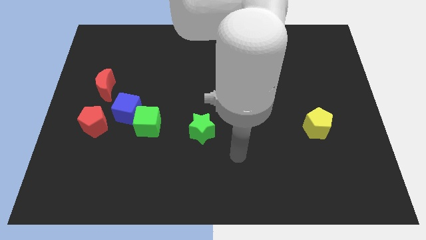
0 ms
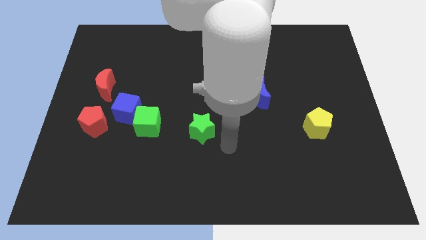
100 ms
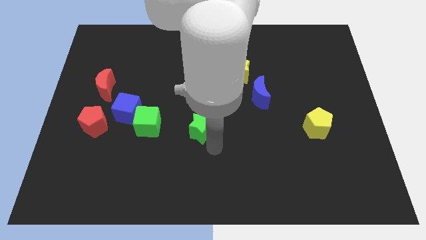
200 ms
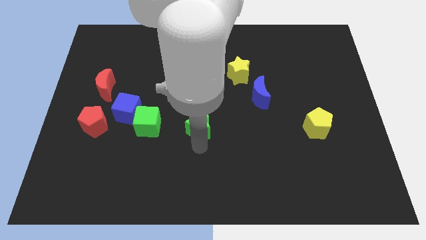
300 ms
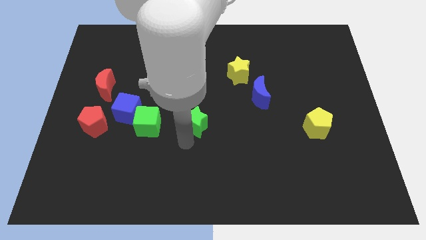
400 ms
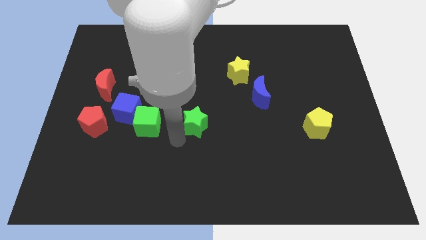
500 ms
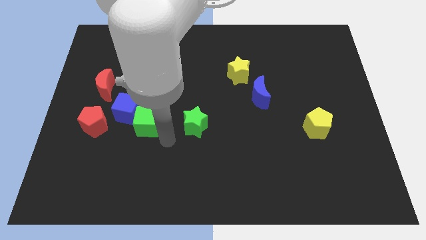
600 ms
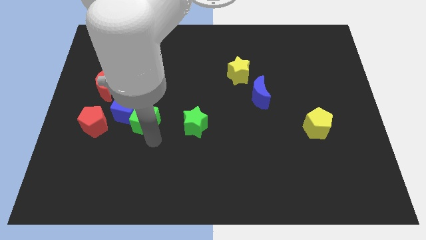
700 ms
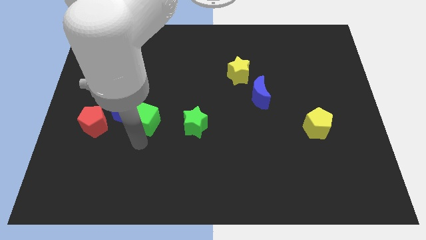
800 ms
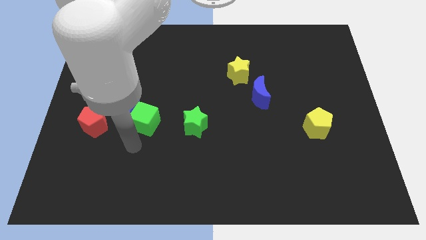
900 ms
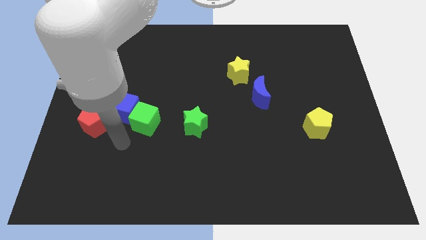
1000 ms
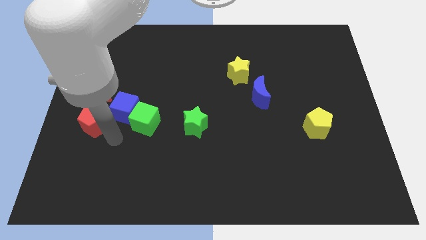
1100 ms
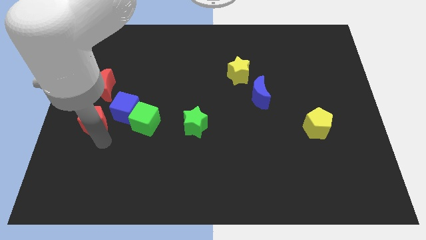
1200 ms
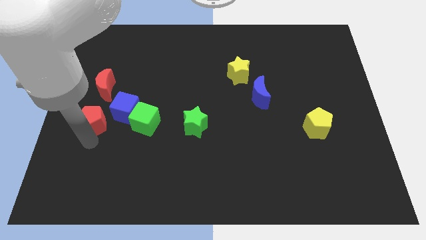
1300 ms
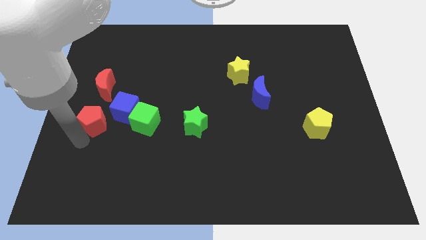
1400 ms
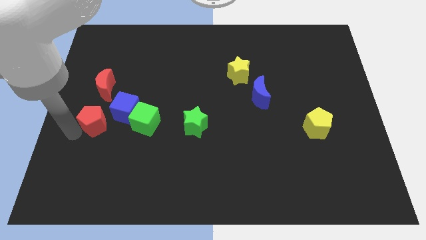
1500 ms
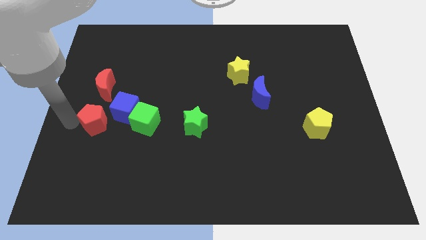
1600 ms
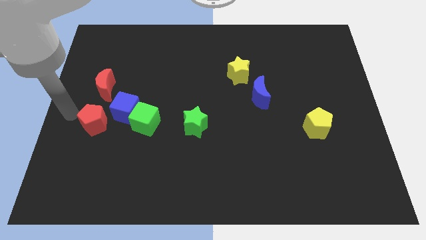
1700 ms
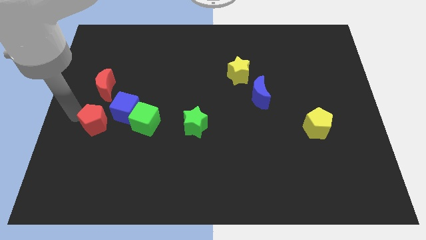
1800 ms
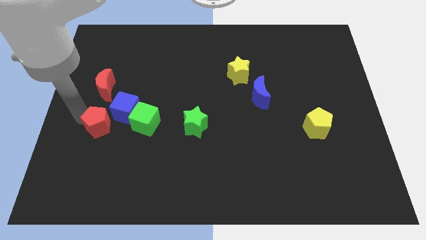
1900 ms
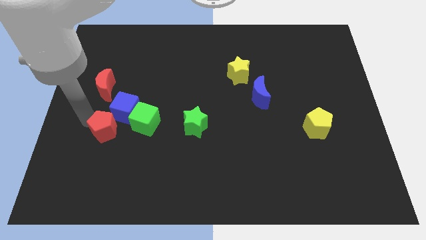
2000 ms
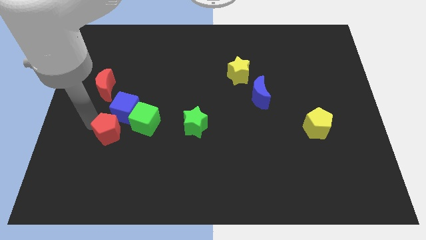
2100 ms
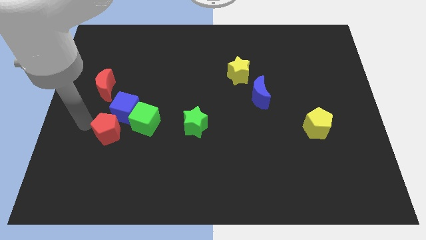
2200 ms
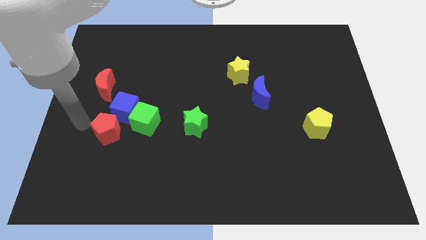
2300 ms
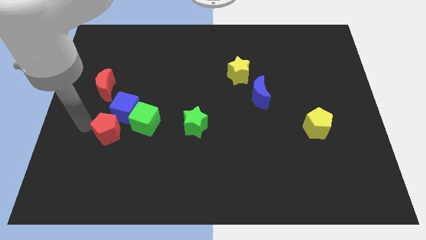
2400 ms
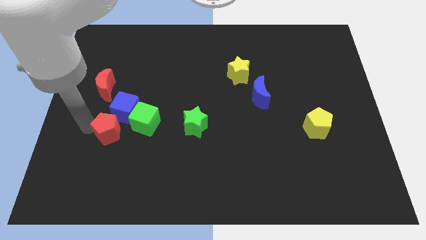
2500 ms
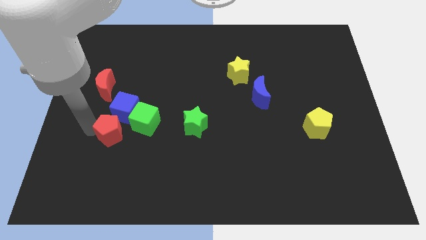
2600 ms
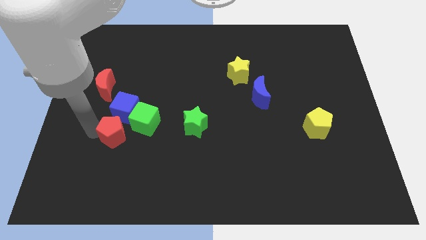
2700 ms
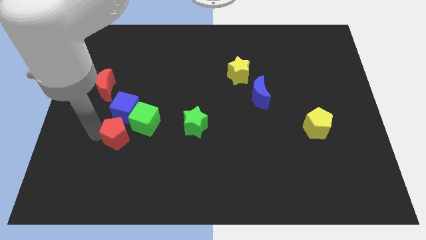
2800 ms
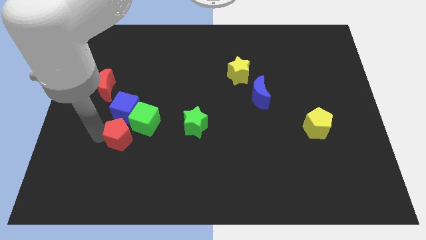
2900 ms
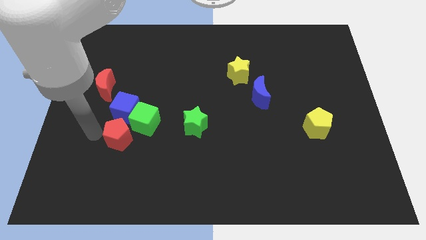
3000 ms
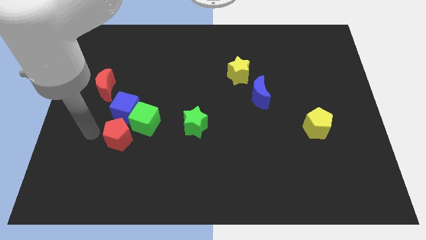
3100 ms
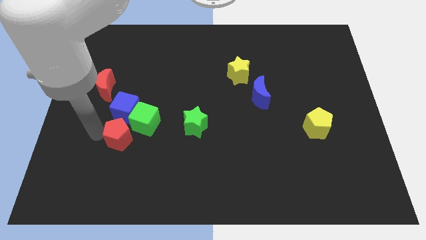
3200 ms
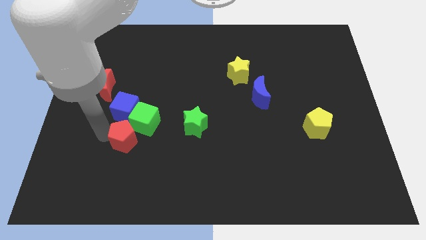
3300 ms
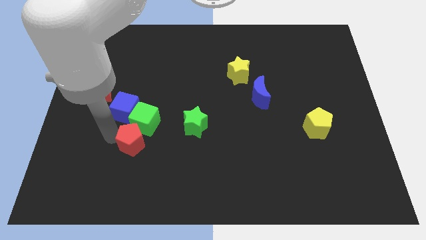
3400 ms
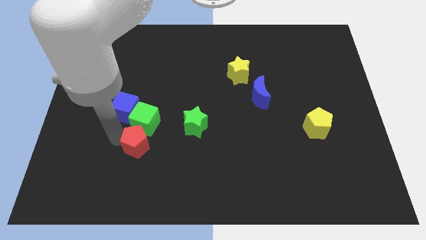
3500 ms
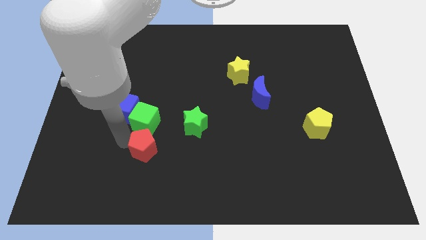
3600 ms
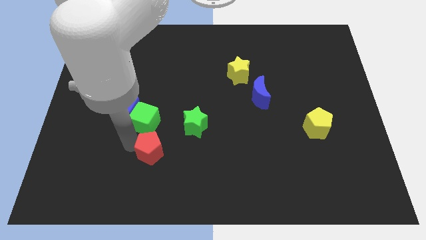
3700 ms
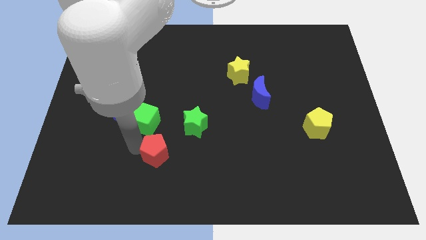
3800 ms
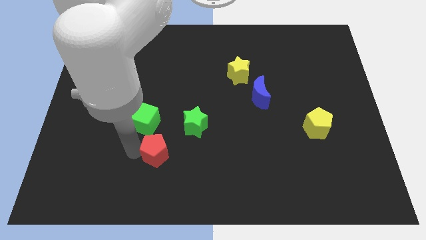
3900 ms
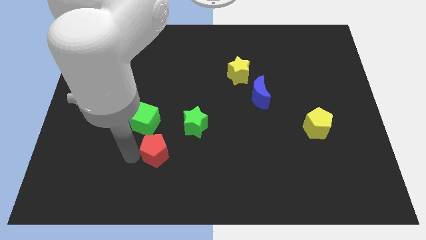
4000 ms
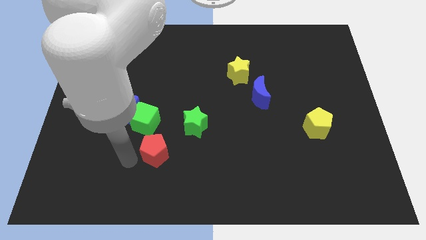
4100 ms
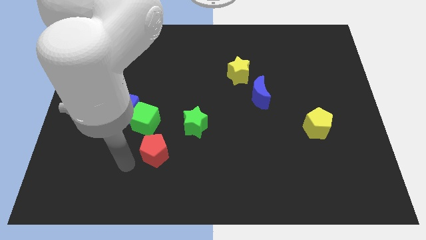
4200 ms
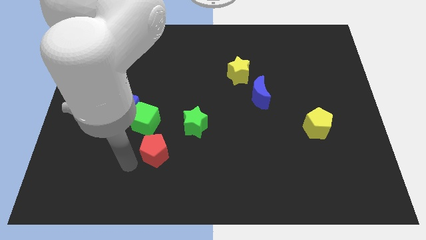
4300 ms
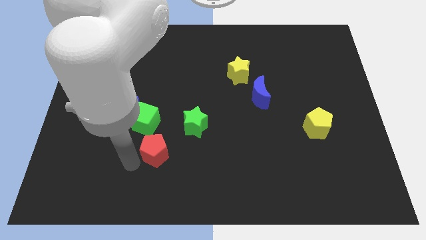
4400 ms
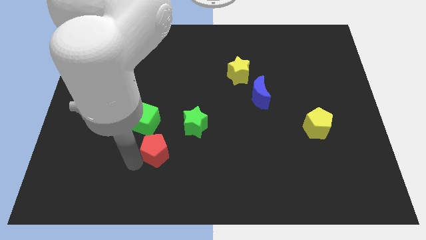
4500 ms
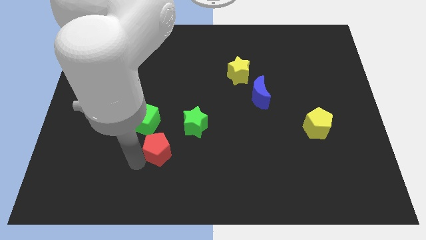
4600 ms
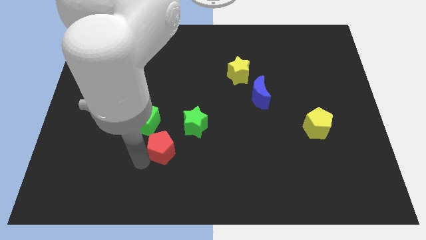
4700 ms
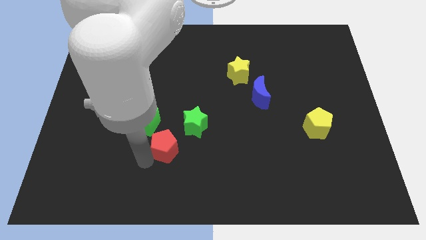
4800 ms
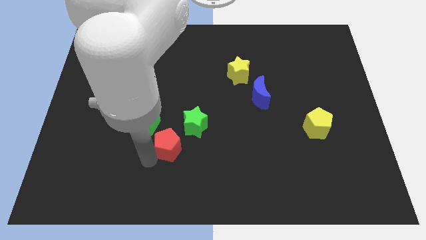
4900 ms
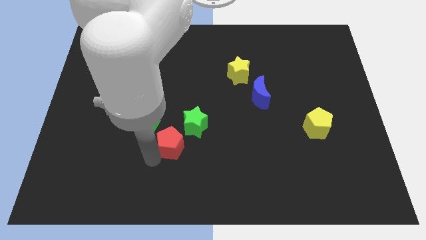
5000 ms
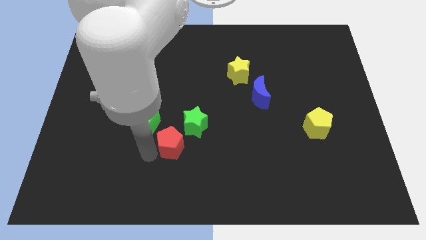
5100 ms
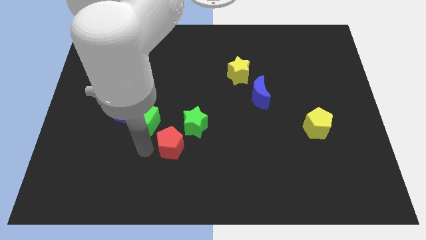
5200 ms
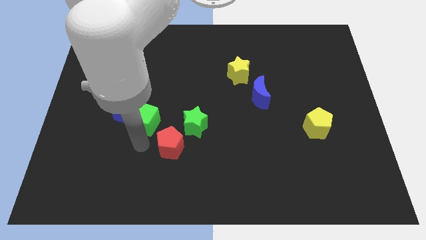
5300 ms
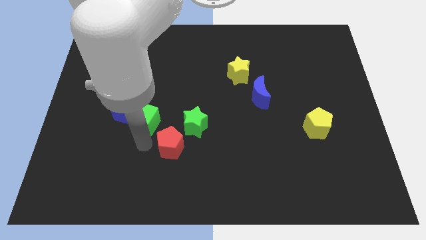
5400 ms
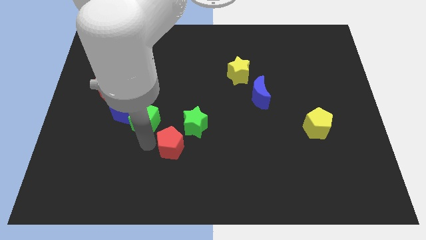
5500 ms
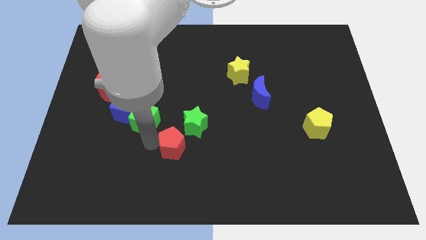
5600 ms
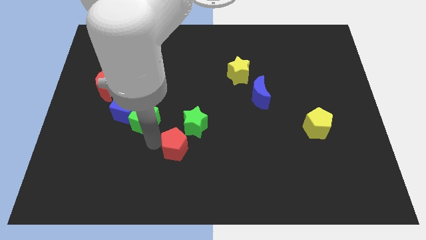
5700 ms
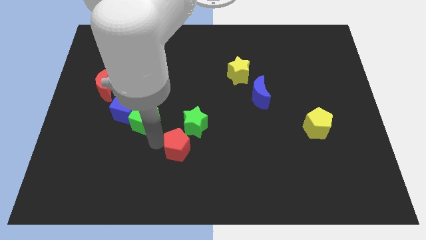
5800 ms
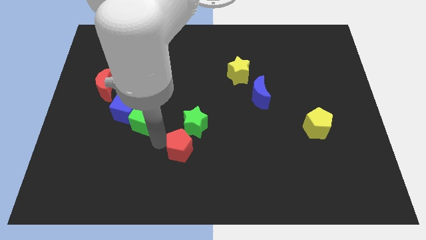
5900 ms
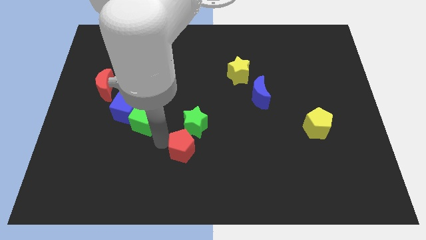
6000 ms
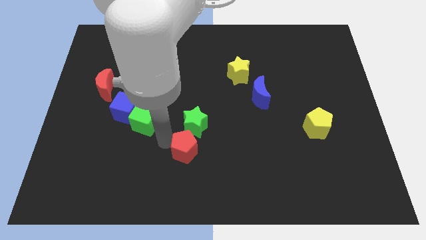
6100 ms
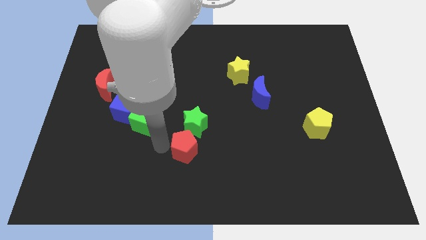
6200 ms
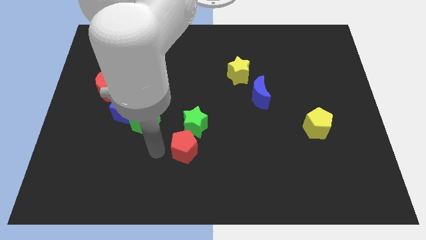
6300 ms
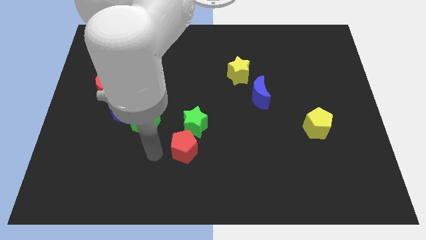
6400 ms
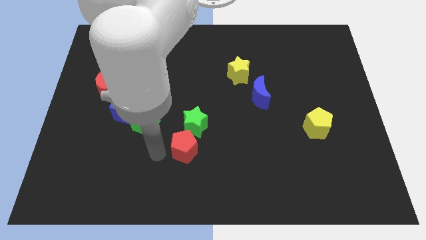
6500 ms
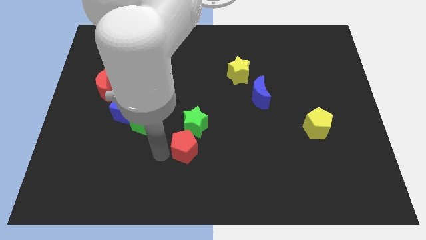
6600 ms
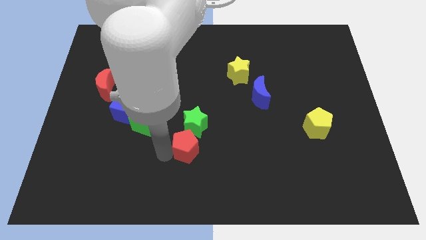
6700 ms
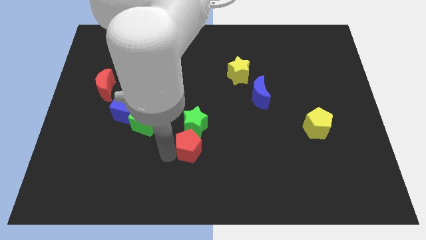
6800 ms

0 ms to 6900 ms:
slide the red pentagon right

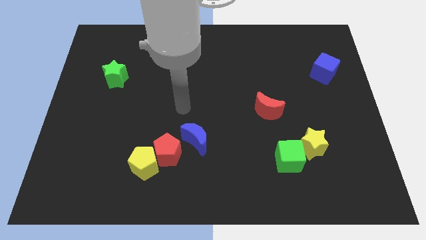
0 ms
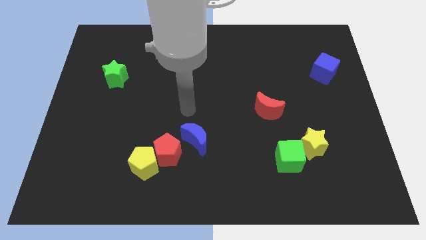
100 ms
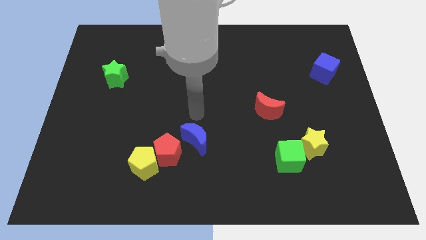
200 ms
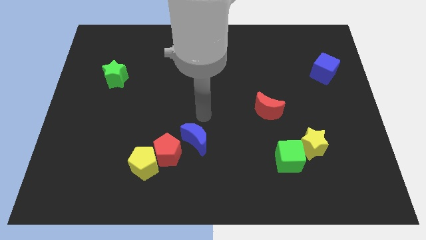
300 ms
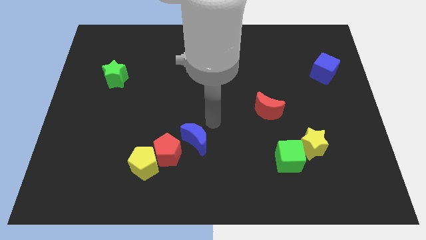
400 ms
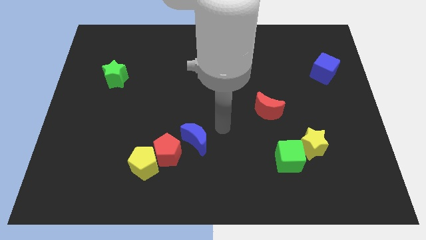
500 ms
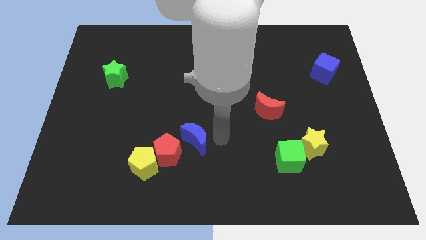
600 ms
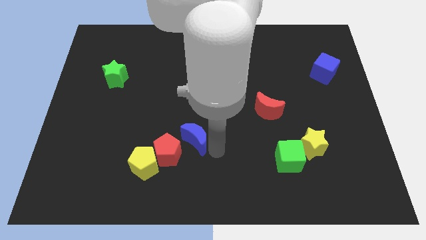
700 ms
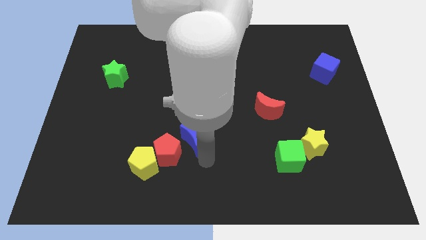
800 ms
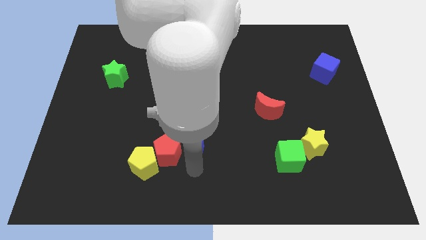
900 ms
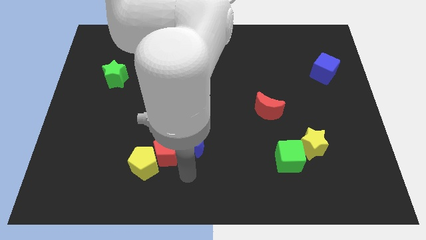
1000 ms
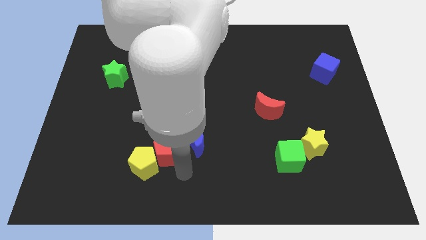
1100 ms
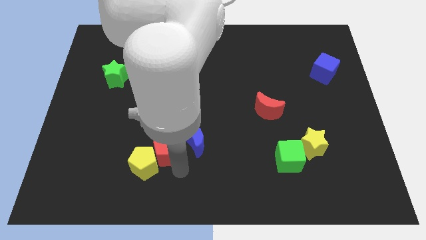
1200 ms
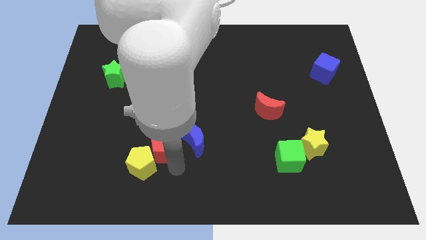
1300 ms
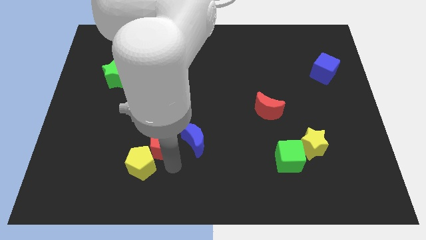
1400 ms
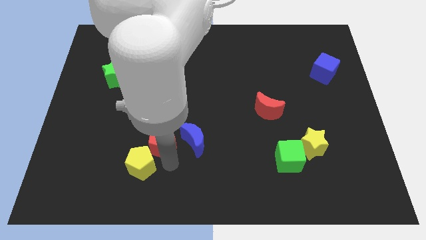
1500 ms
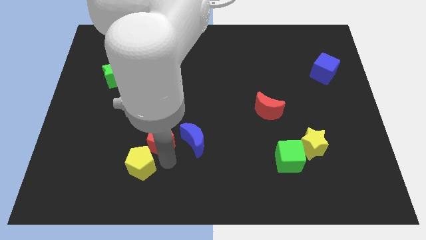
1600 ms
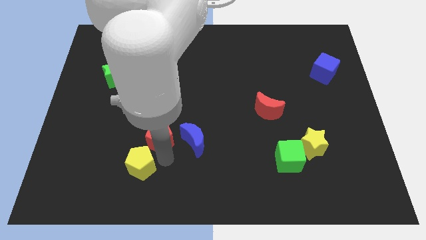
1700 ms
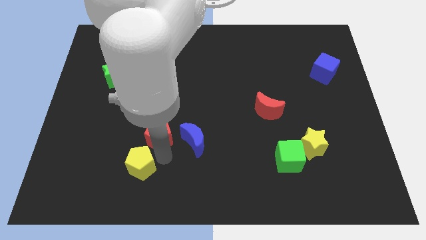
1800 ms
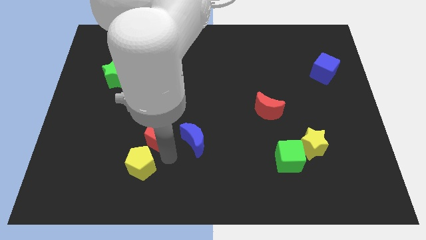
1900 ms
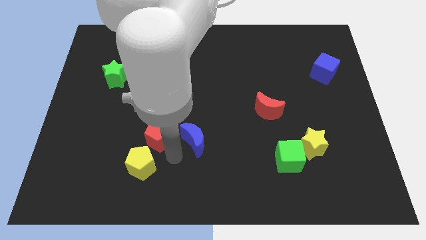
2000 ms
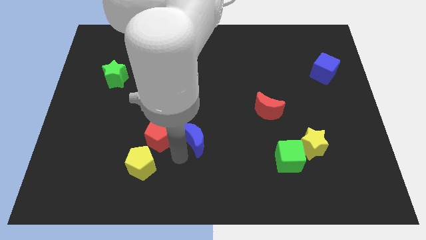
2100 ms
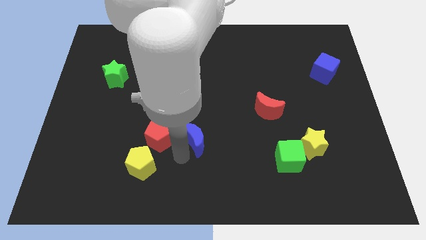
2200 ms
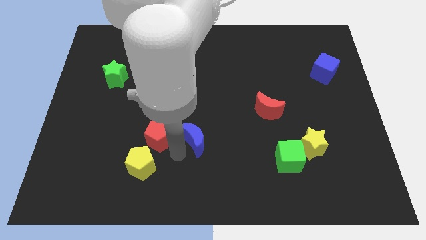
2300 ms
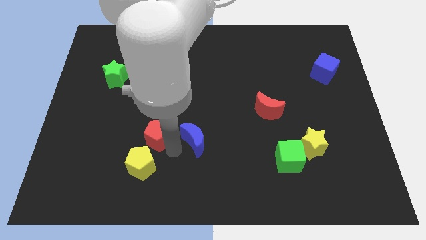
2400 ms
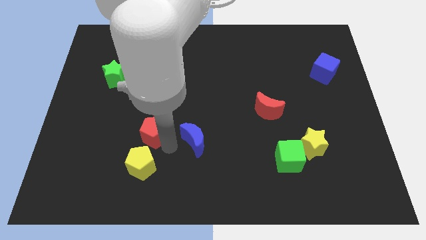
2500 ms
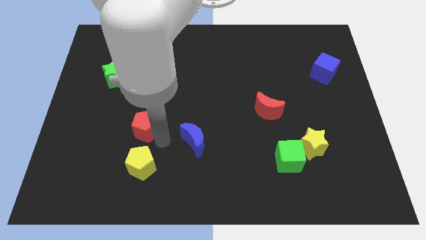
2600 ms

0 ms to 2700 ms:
slightly slide the red pentagon up and to the left diagonally
